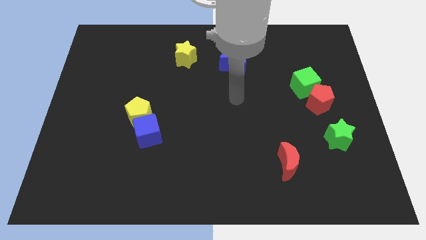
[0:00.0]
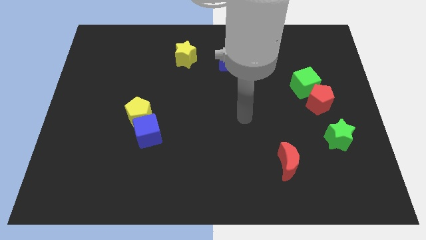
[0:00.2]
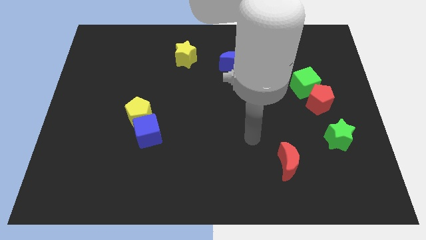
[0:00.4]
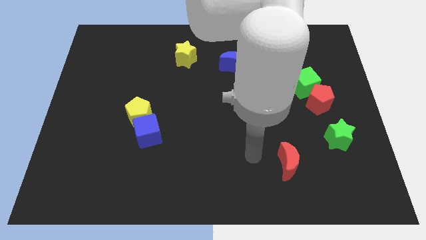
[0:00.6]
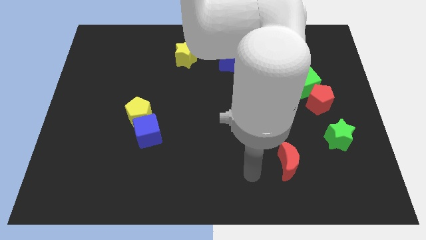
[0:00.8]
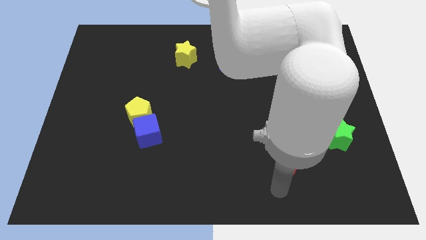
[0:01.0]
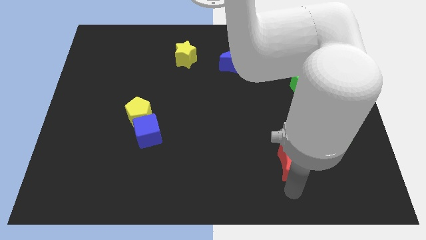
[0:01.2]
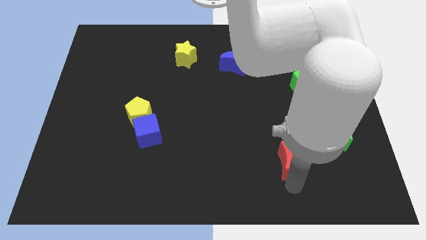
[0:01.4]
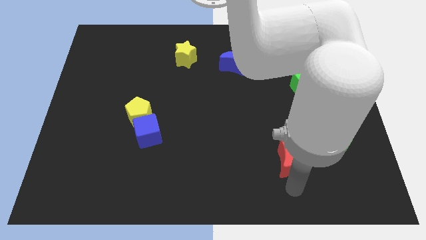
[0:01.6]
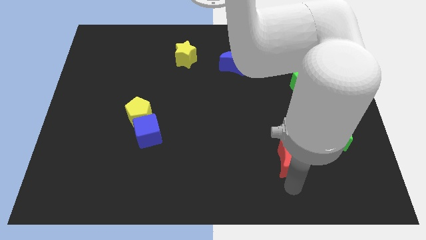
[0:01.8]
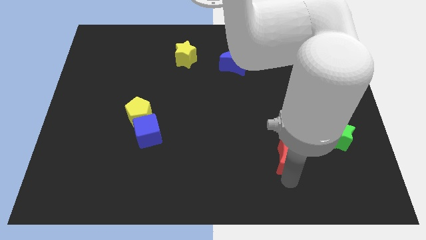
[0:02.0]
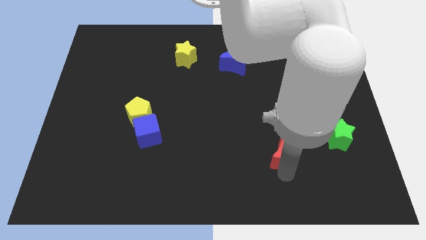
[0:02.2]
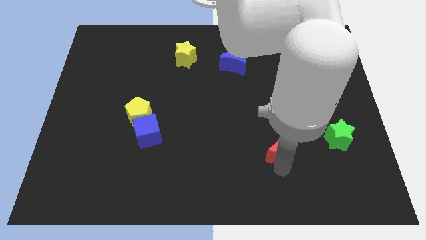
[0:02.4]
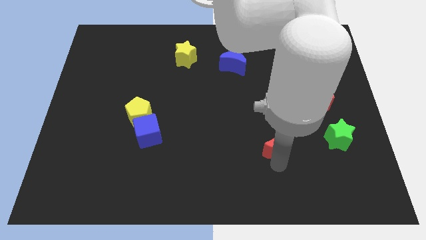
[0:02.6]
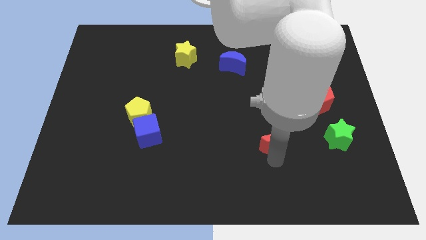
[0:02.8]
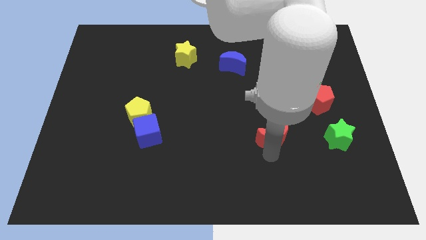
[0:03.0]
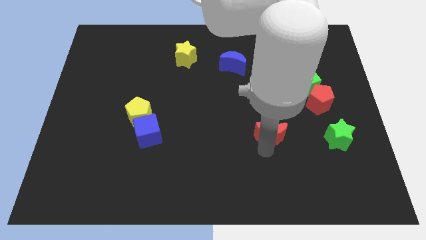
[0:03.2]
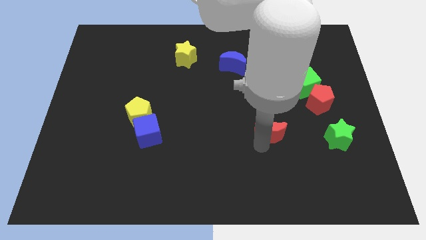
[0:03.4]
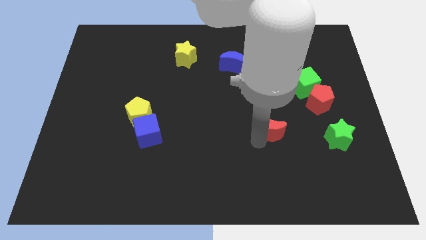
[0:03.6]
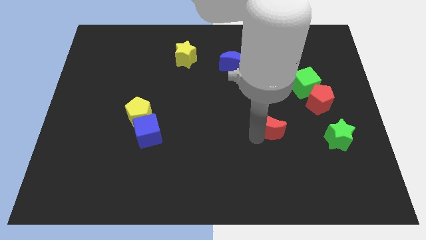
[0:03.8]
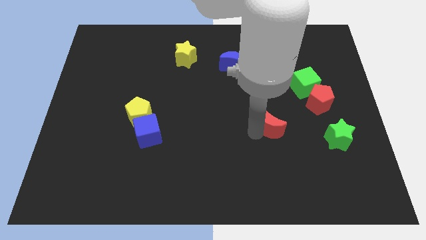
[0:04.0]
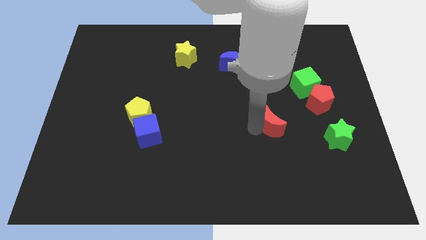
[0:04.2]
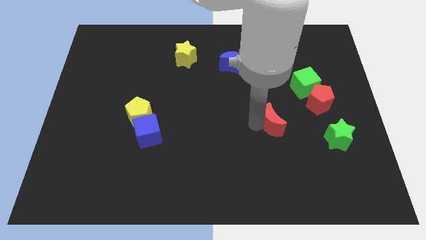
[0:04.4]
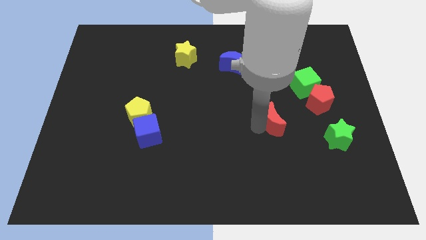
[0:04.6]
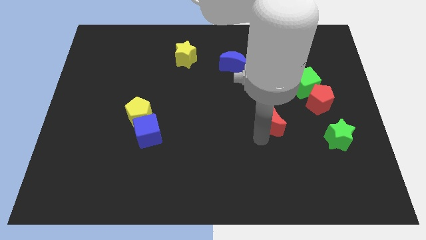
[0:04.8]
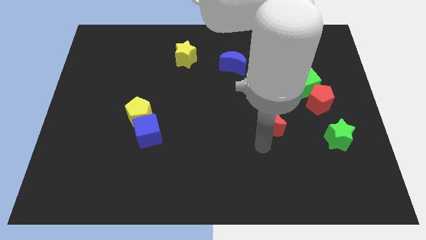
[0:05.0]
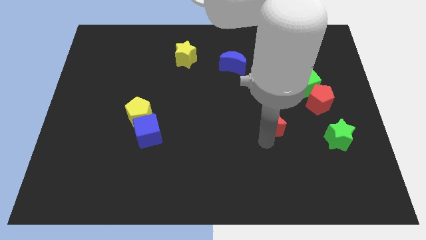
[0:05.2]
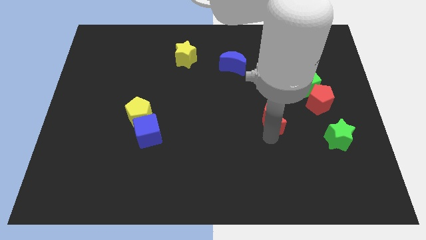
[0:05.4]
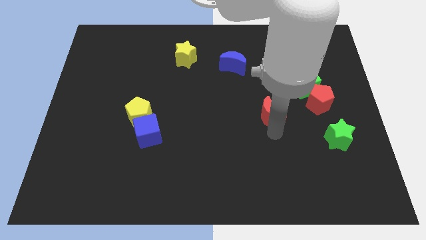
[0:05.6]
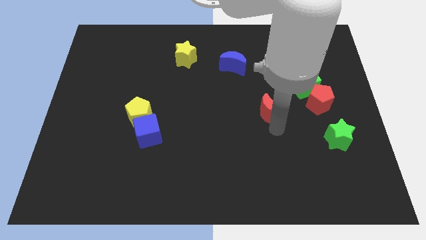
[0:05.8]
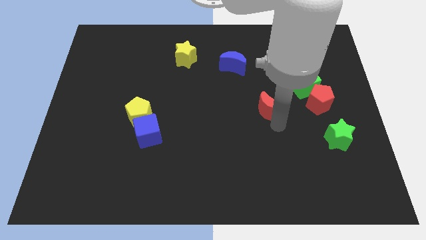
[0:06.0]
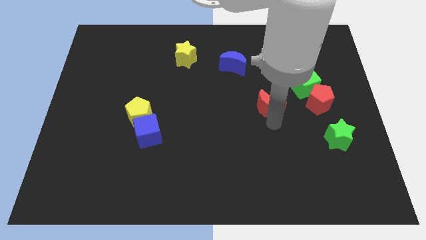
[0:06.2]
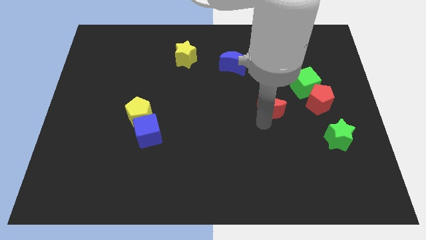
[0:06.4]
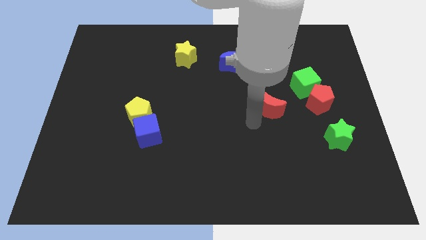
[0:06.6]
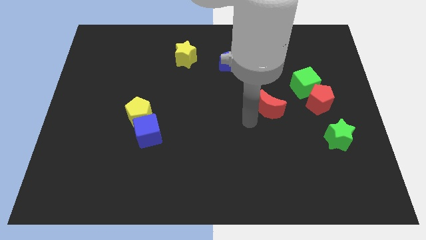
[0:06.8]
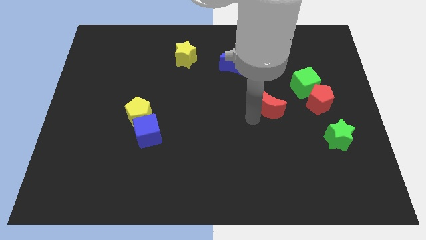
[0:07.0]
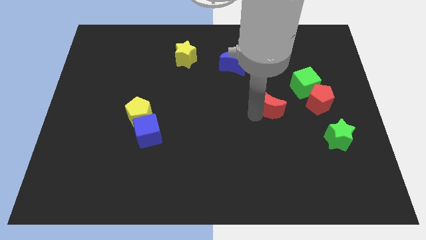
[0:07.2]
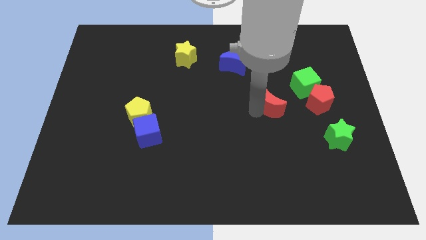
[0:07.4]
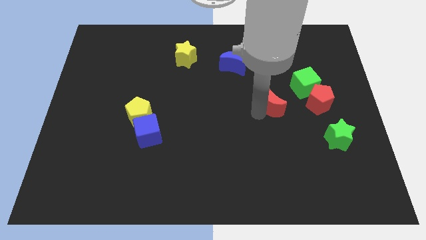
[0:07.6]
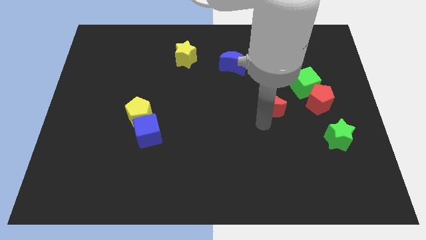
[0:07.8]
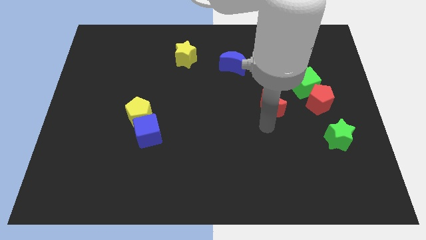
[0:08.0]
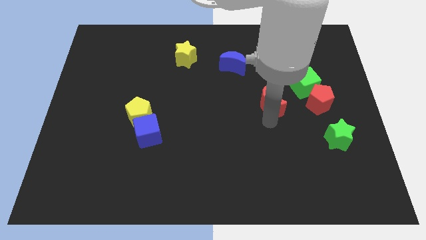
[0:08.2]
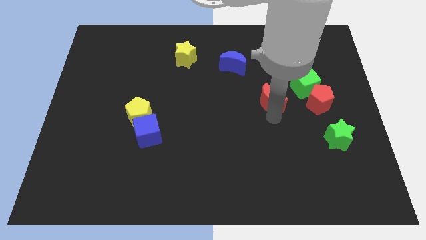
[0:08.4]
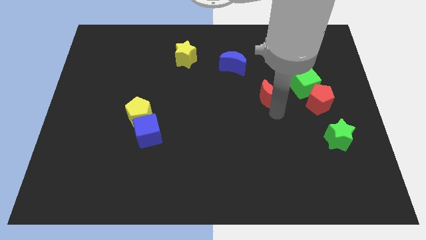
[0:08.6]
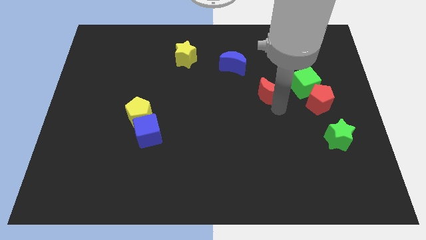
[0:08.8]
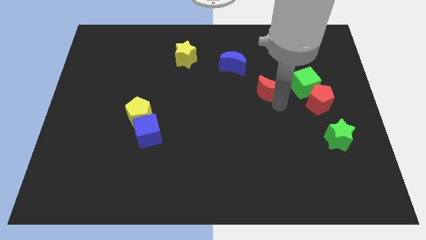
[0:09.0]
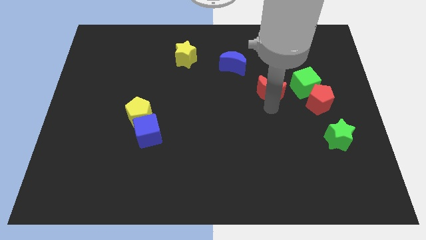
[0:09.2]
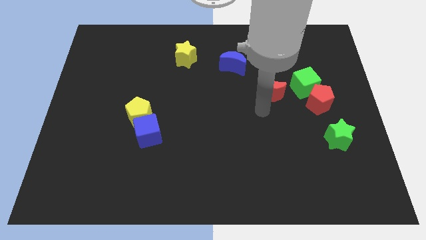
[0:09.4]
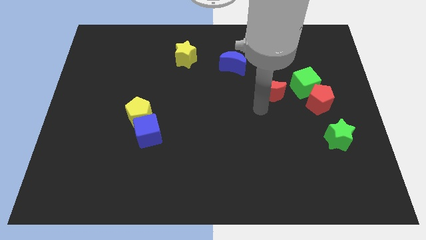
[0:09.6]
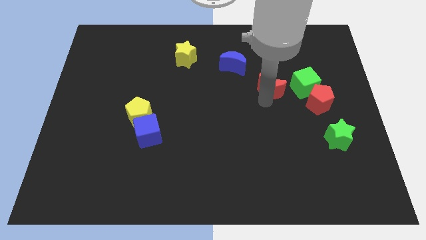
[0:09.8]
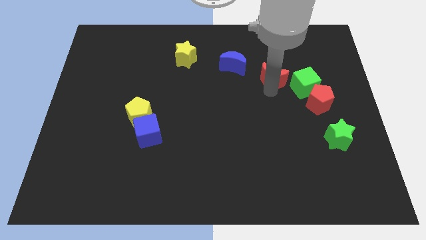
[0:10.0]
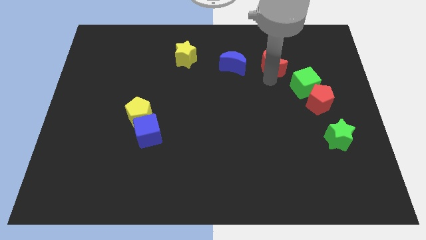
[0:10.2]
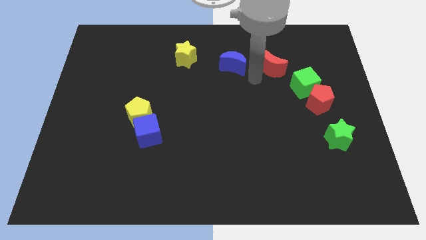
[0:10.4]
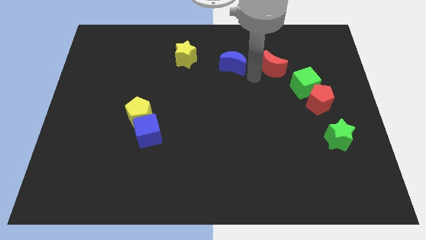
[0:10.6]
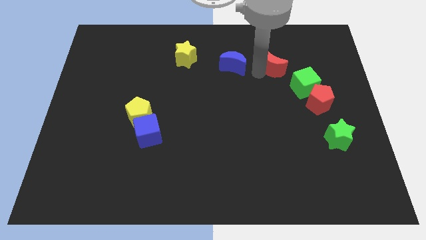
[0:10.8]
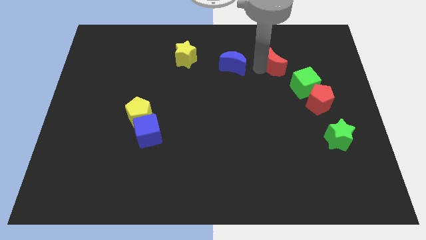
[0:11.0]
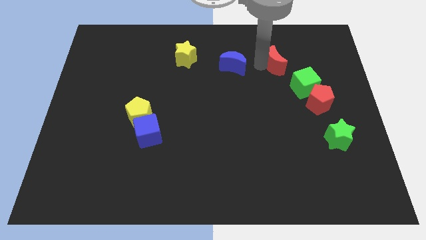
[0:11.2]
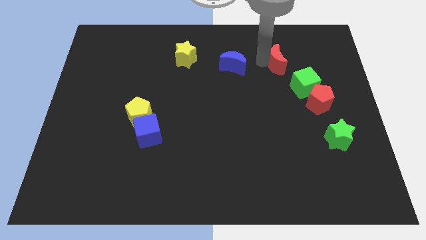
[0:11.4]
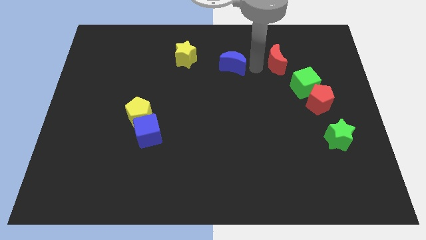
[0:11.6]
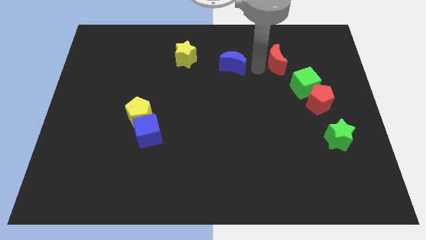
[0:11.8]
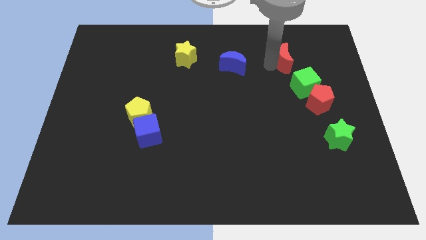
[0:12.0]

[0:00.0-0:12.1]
move the red moon to the top side of the green cube

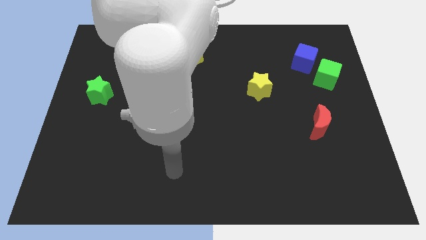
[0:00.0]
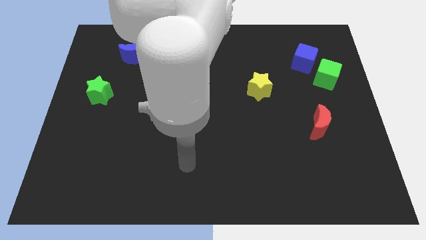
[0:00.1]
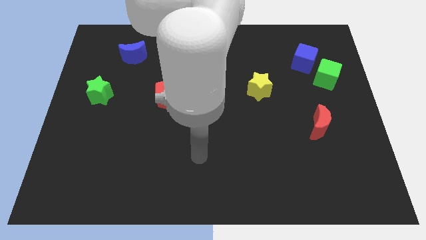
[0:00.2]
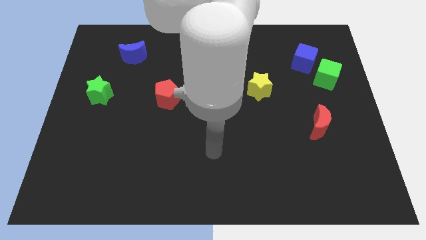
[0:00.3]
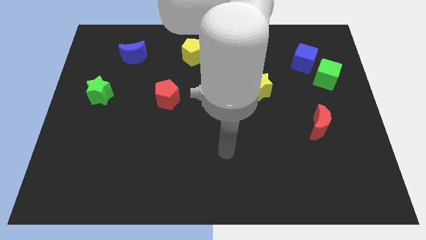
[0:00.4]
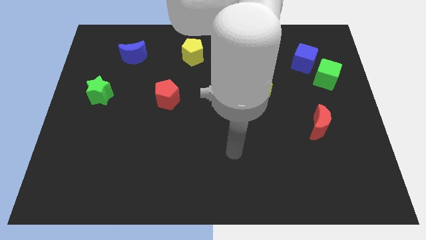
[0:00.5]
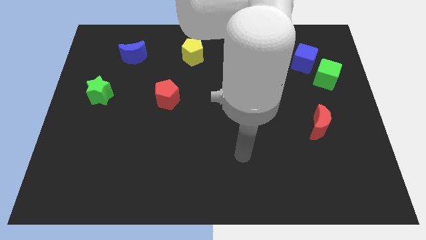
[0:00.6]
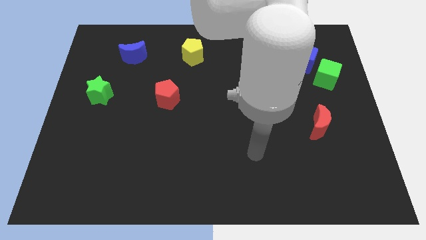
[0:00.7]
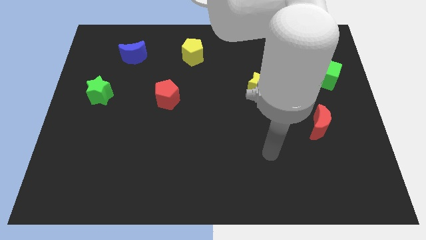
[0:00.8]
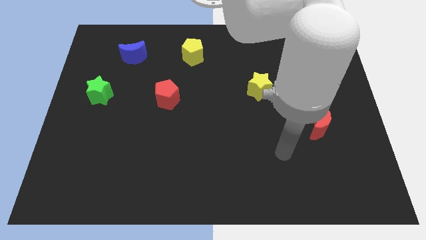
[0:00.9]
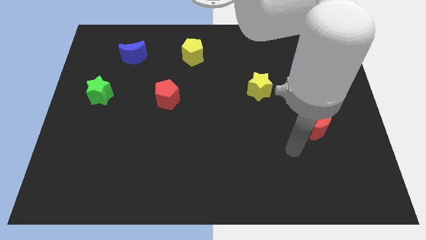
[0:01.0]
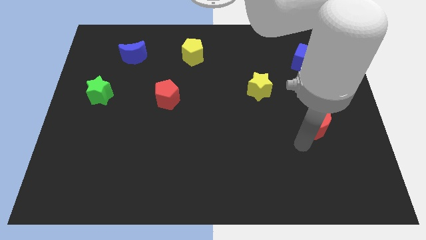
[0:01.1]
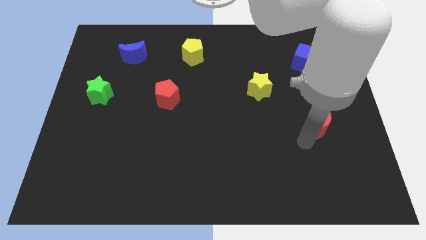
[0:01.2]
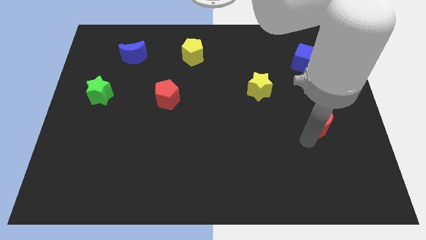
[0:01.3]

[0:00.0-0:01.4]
move the red moon to the bottom of the green cube
